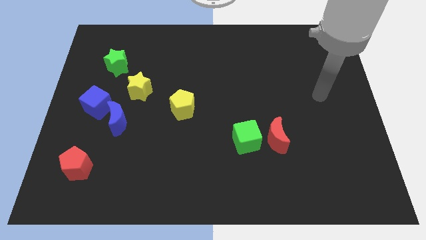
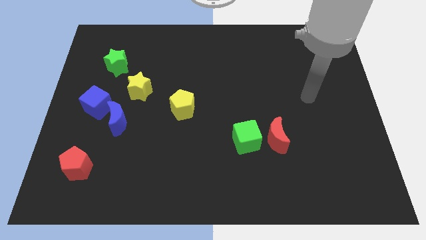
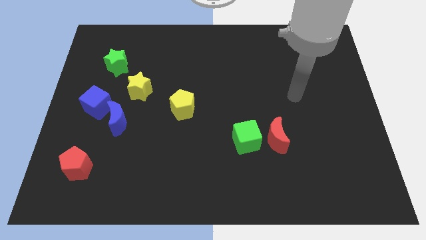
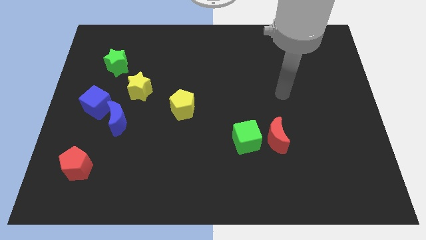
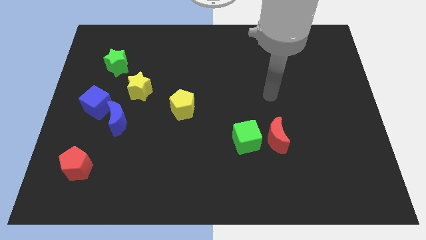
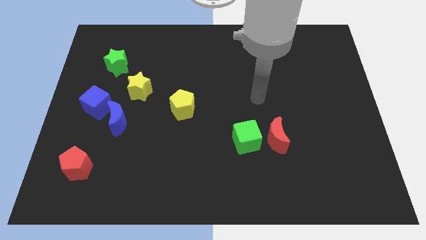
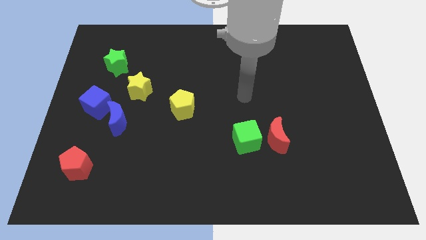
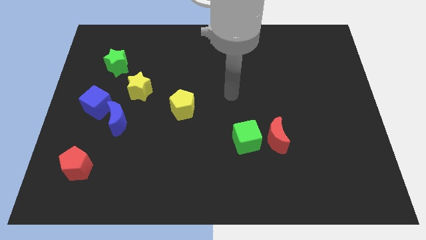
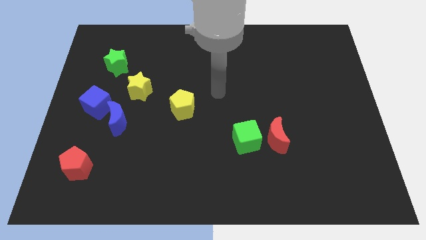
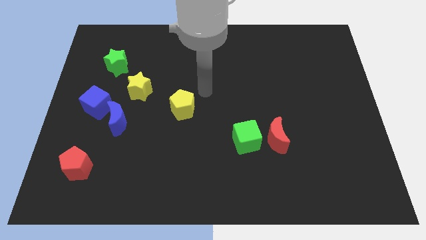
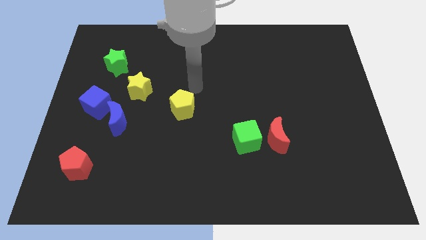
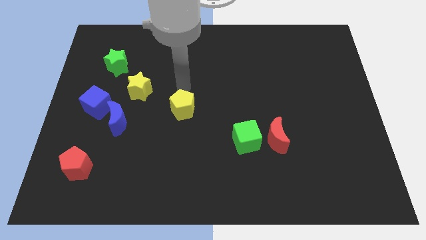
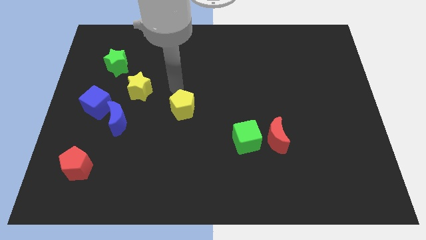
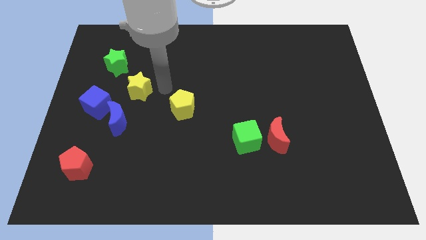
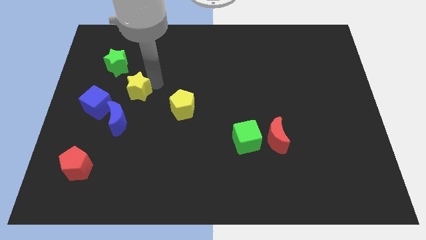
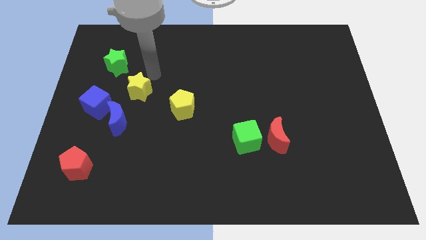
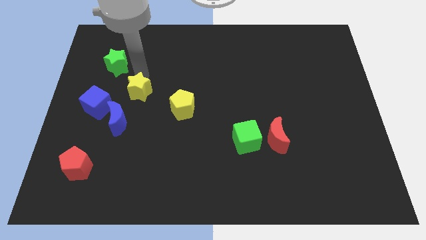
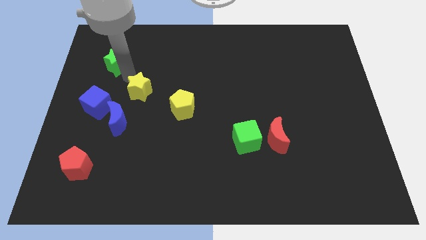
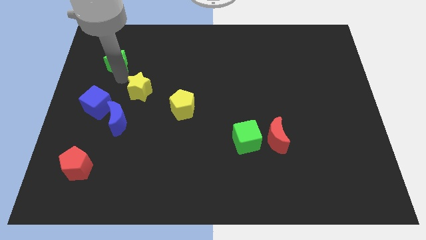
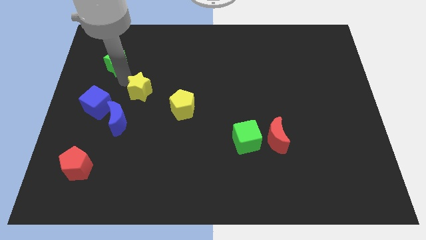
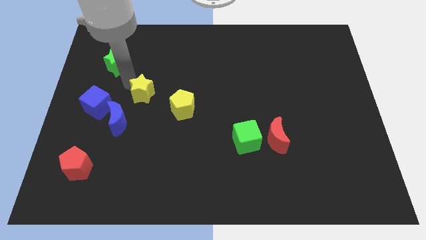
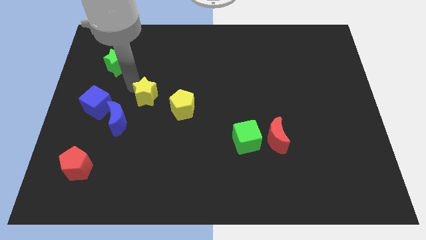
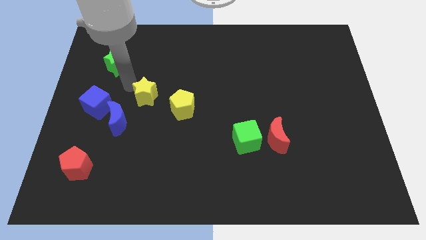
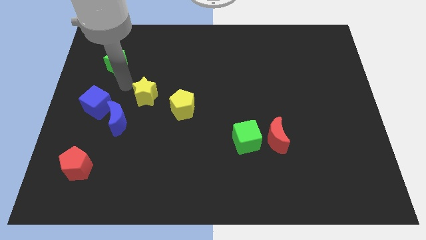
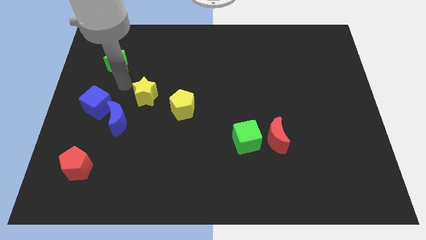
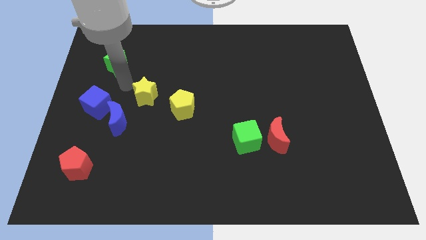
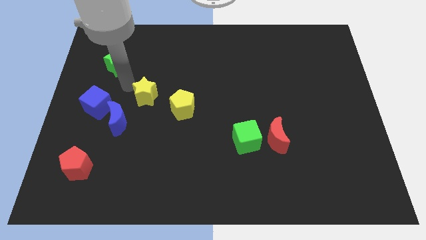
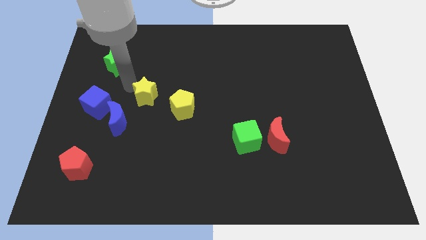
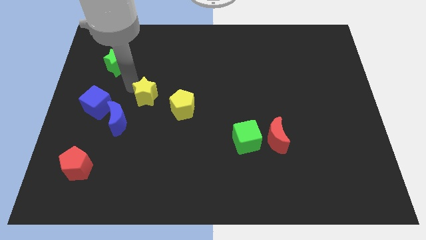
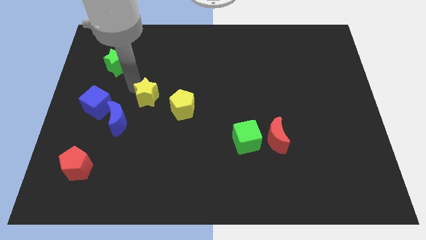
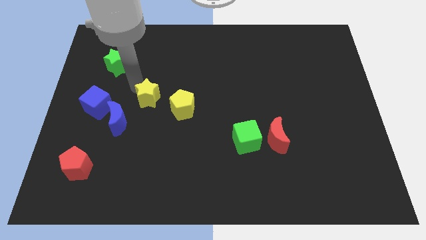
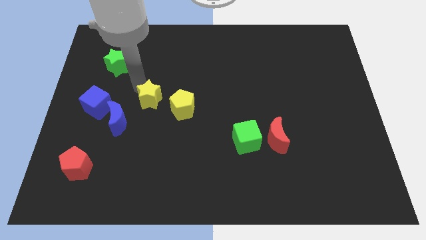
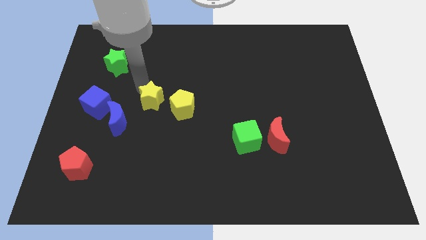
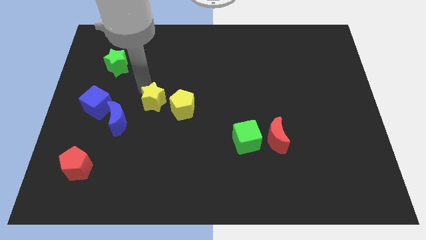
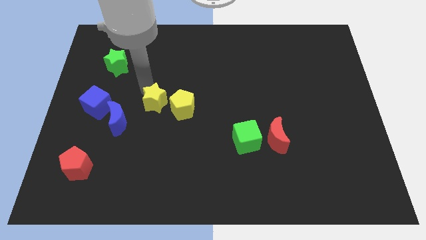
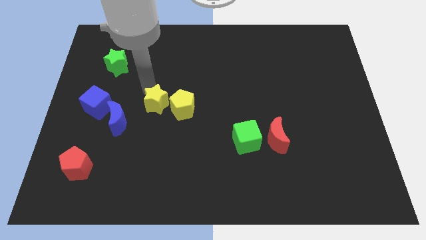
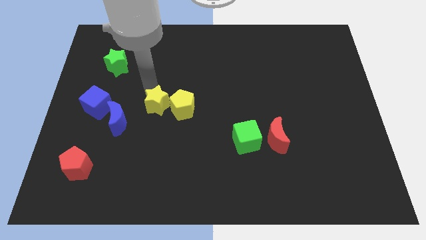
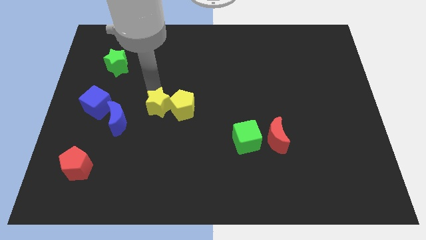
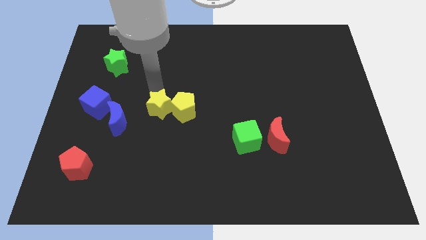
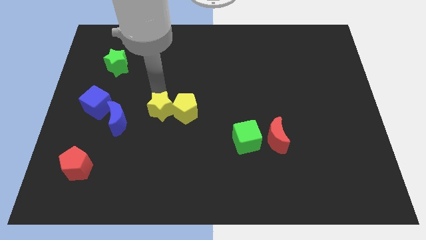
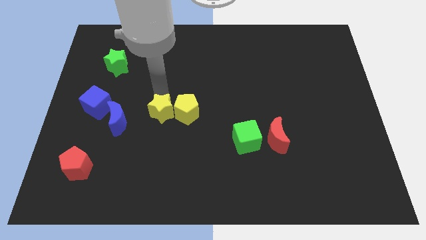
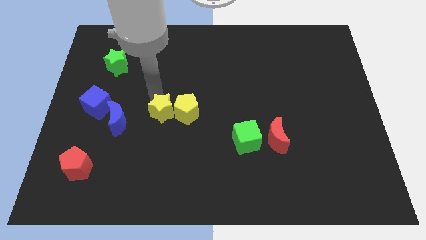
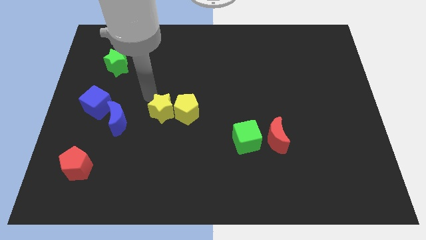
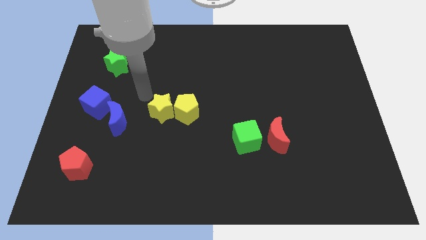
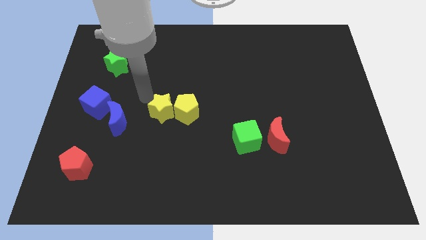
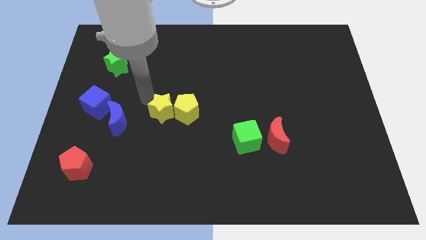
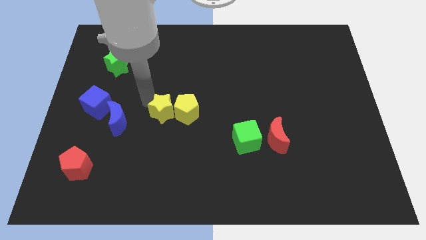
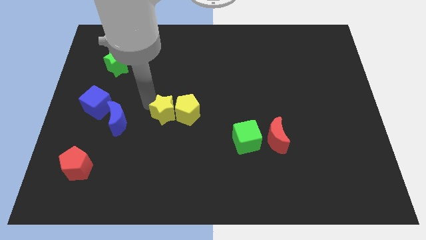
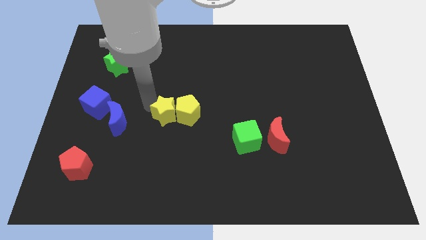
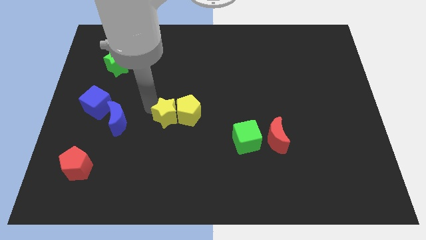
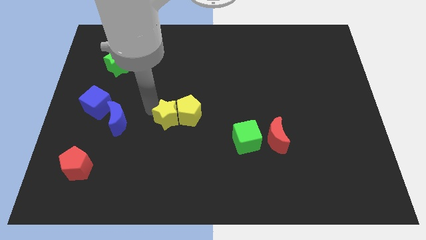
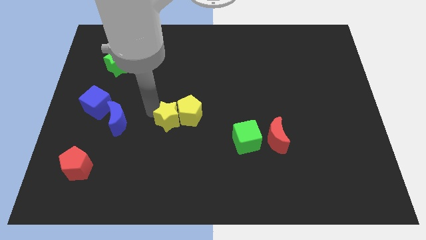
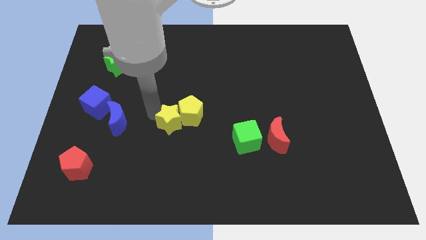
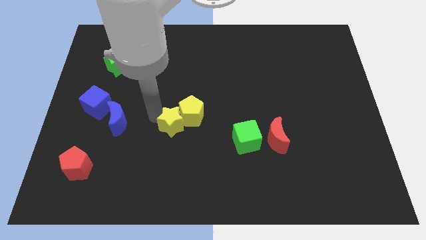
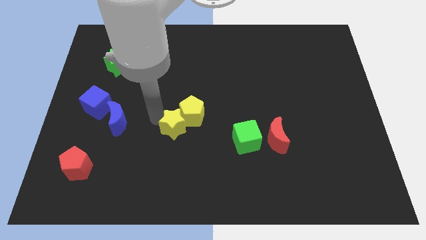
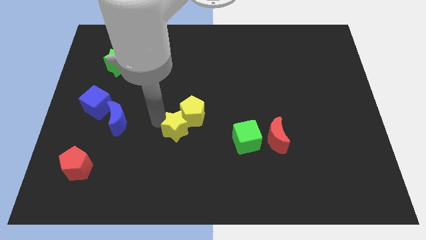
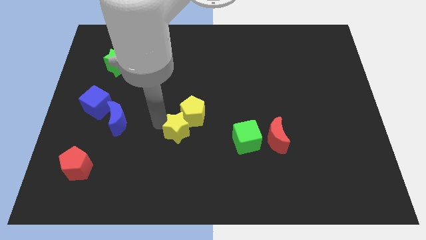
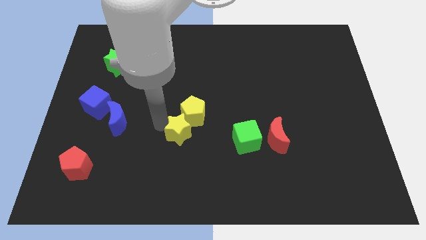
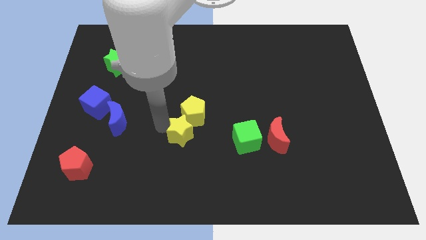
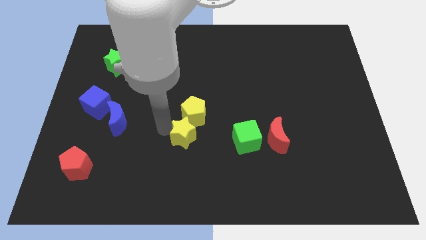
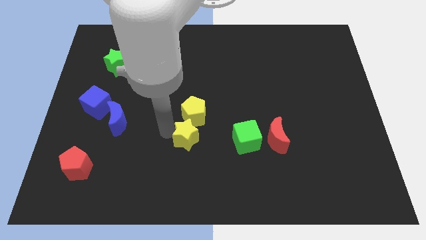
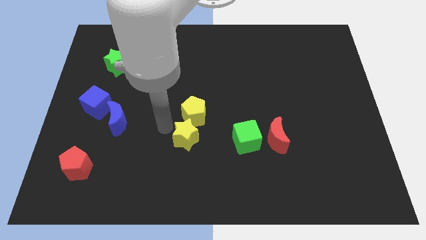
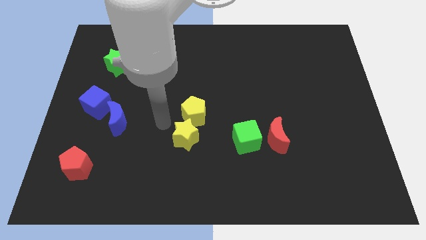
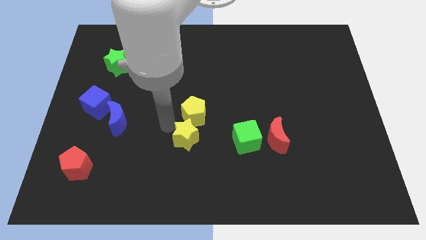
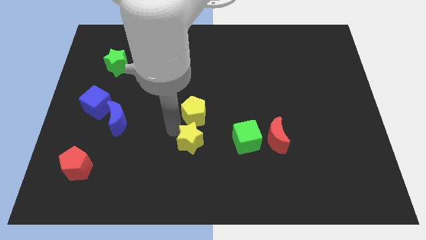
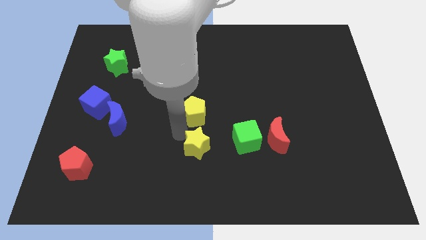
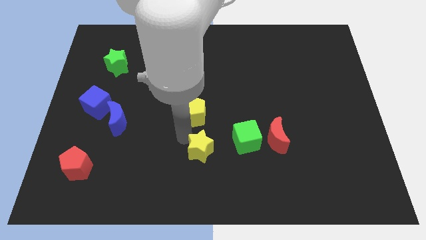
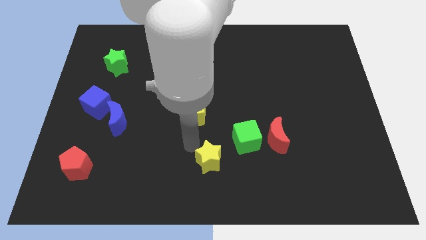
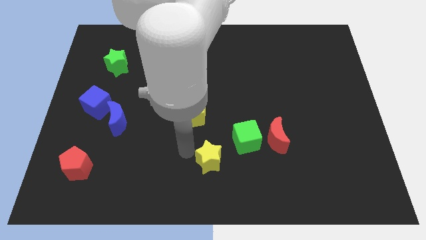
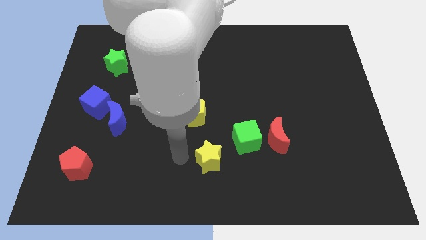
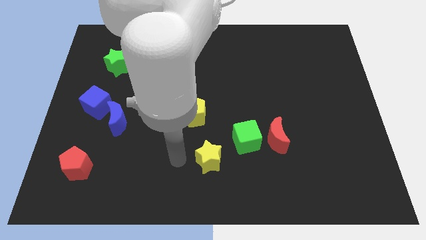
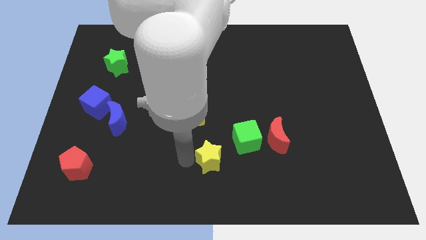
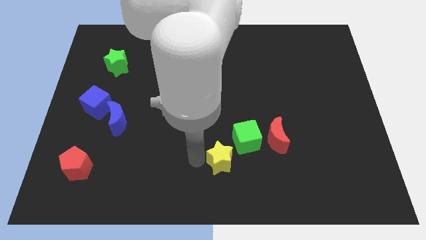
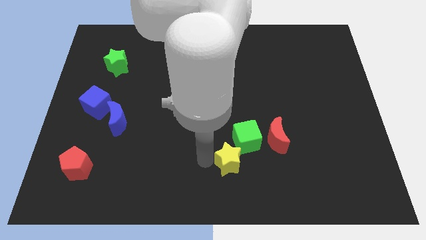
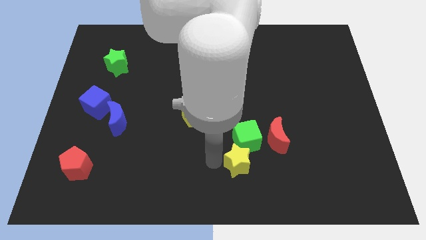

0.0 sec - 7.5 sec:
slide the yellow star diagonally down and to the left of the red moon
